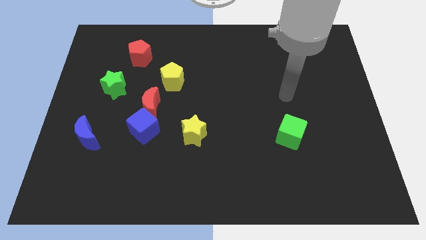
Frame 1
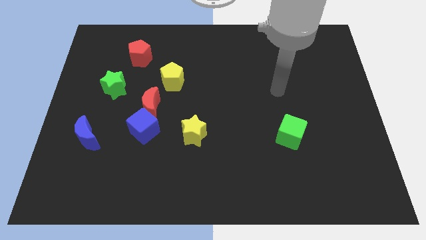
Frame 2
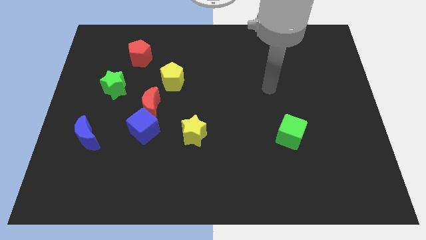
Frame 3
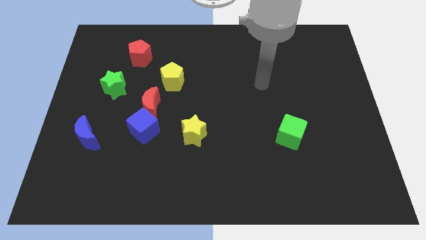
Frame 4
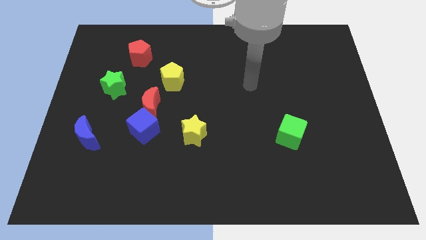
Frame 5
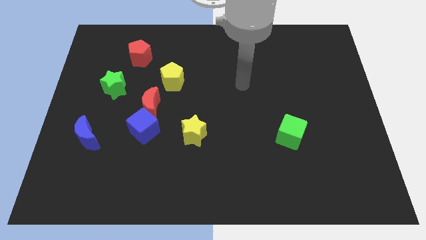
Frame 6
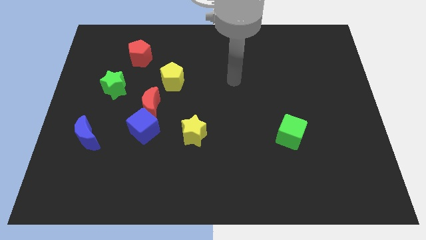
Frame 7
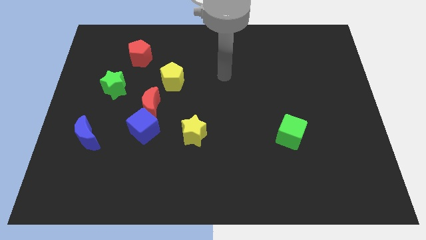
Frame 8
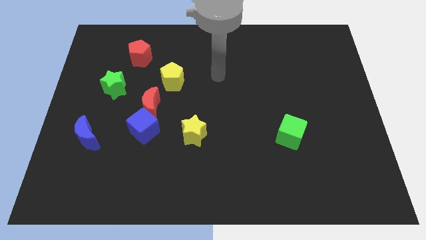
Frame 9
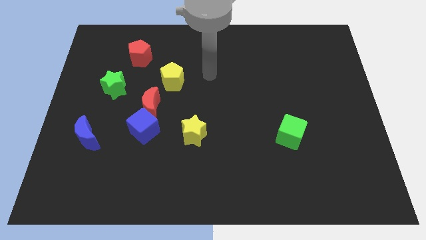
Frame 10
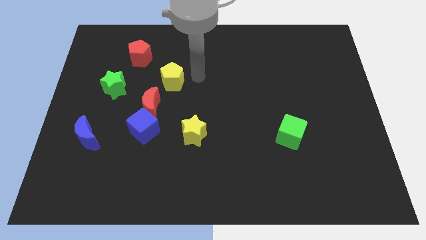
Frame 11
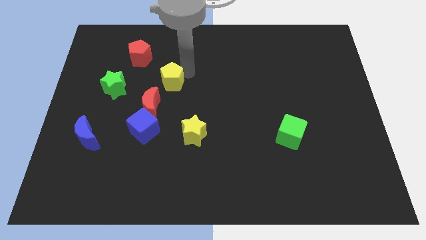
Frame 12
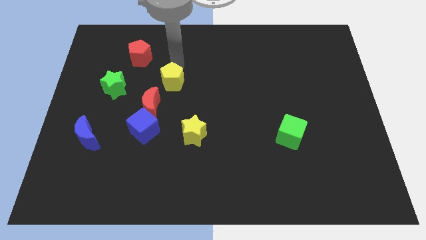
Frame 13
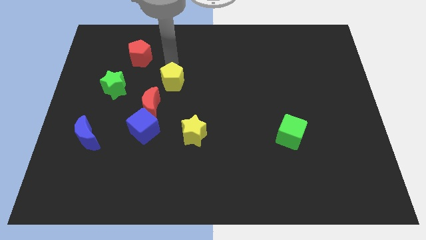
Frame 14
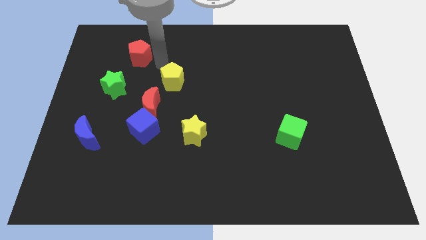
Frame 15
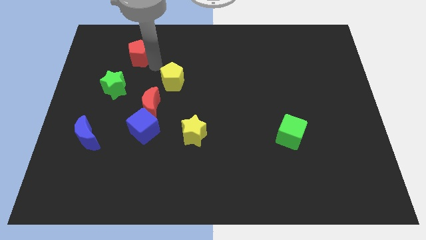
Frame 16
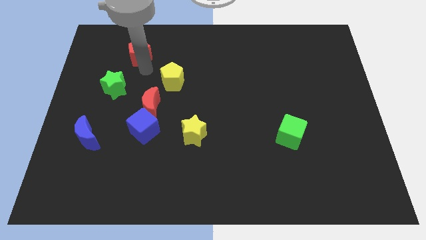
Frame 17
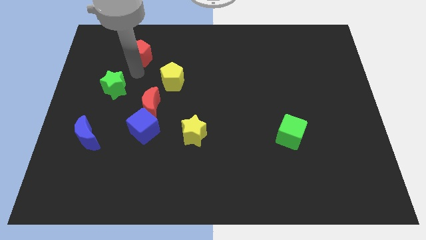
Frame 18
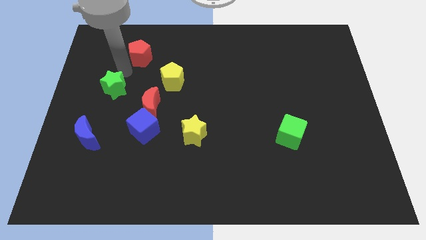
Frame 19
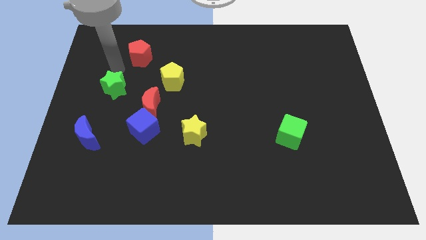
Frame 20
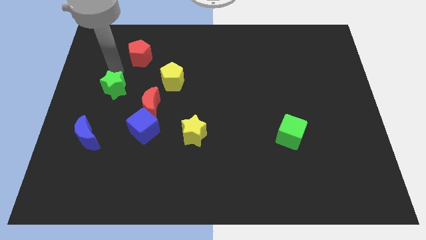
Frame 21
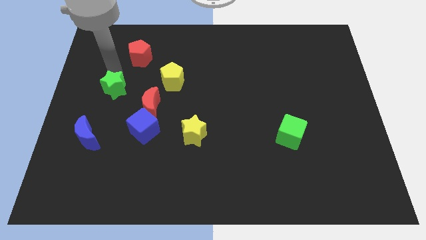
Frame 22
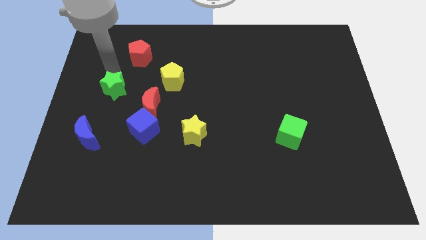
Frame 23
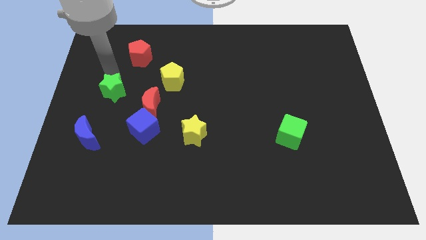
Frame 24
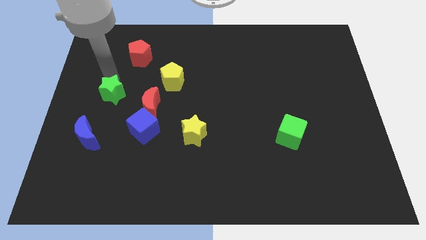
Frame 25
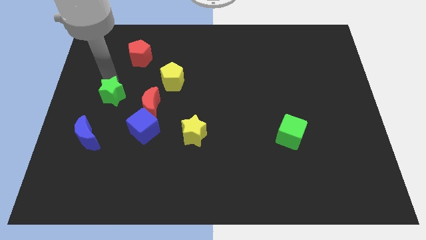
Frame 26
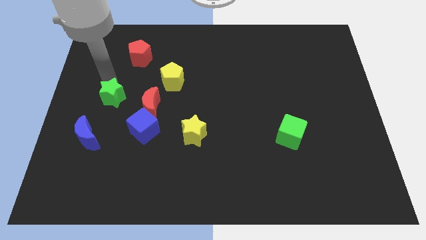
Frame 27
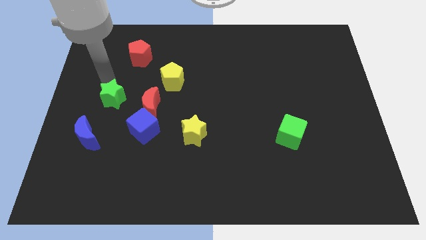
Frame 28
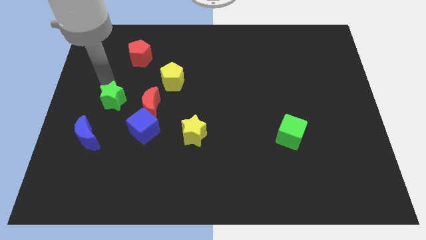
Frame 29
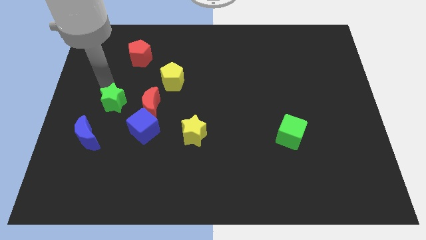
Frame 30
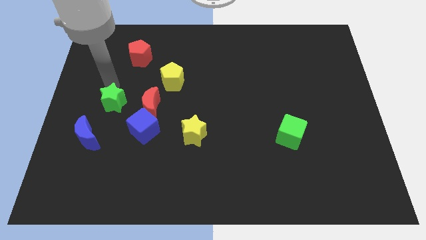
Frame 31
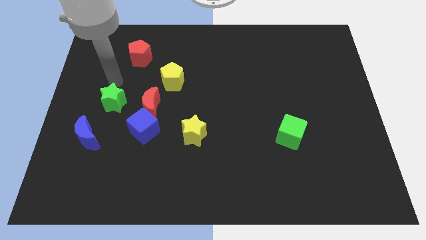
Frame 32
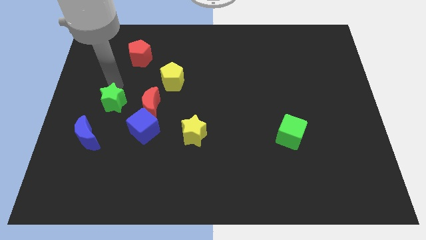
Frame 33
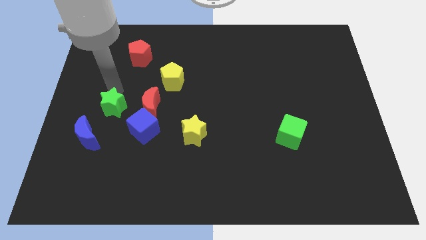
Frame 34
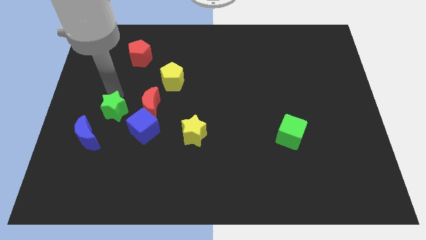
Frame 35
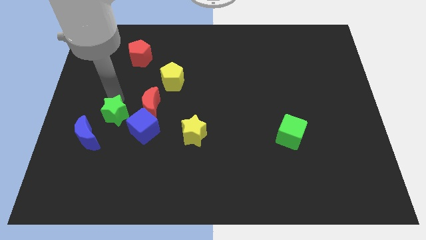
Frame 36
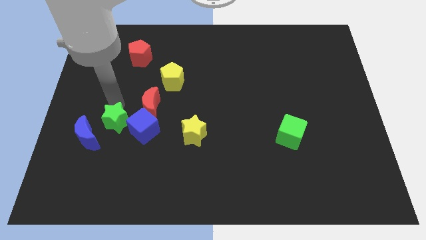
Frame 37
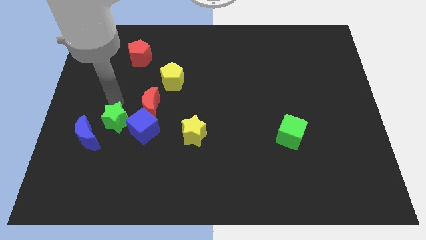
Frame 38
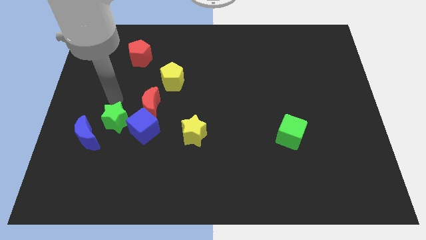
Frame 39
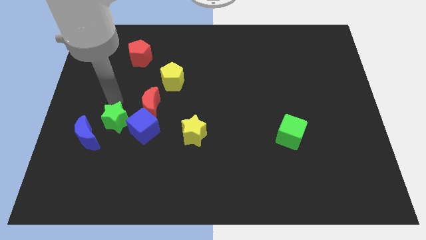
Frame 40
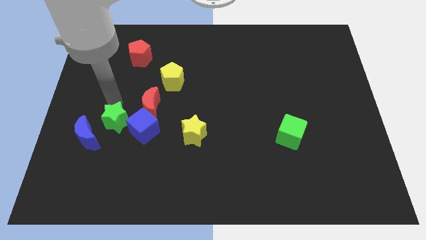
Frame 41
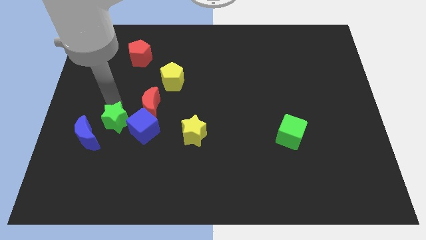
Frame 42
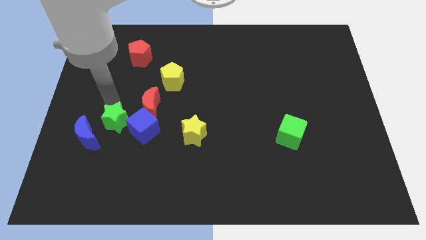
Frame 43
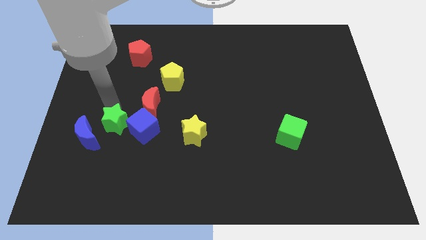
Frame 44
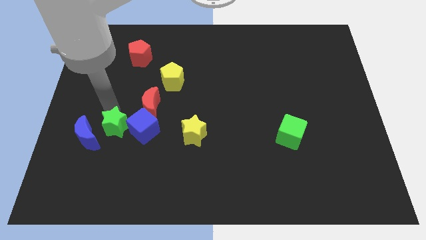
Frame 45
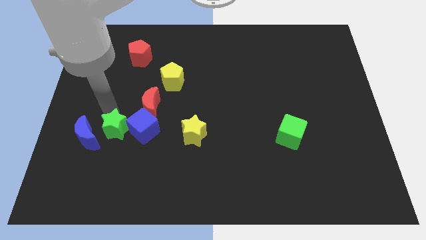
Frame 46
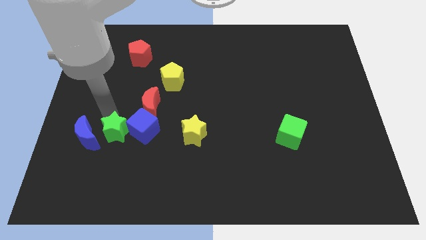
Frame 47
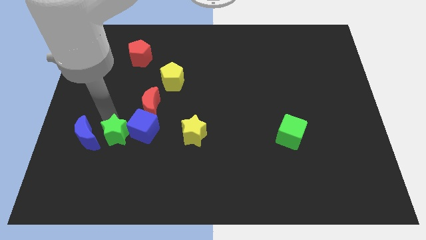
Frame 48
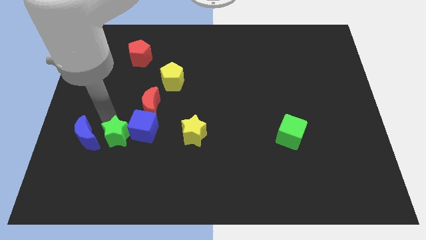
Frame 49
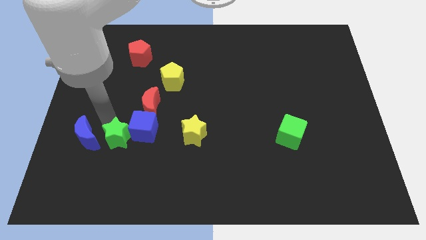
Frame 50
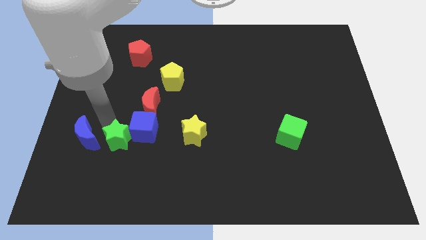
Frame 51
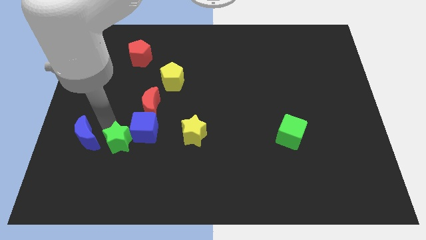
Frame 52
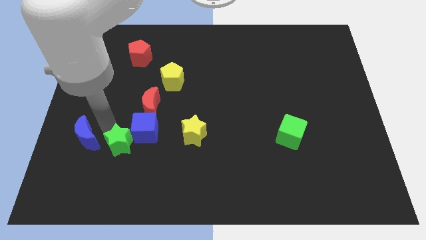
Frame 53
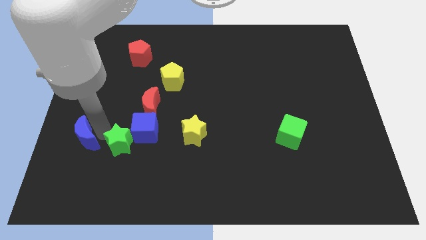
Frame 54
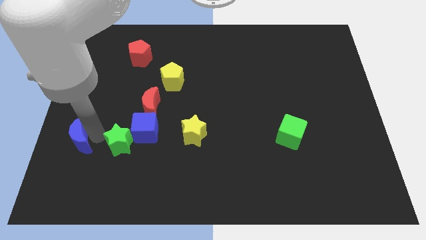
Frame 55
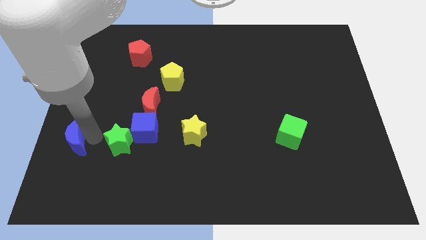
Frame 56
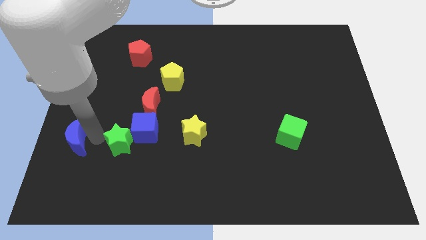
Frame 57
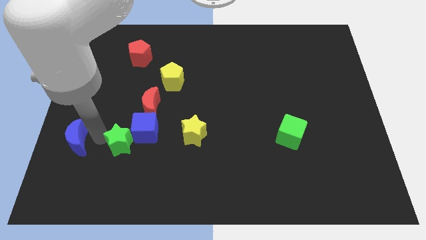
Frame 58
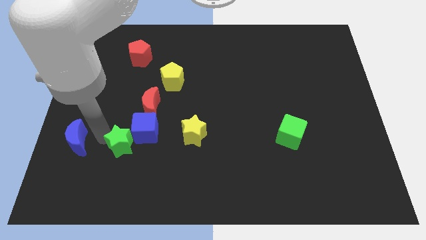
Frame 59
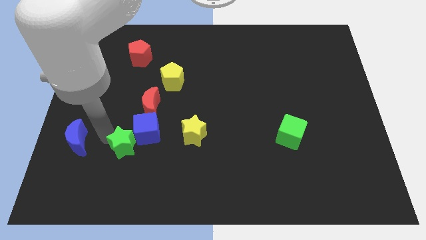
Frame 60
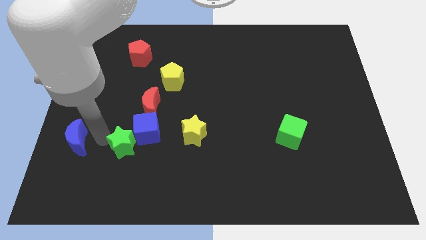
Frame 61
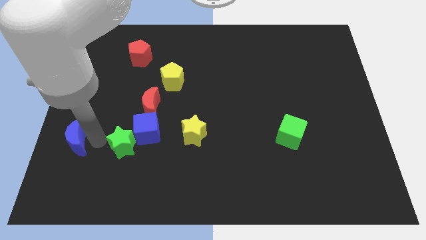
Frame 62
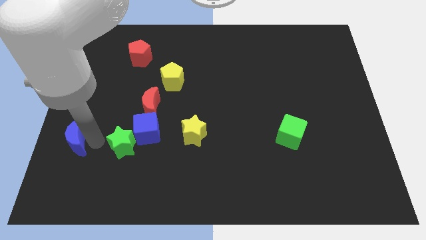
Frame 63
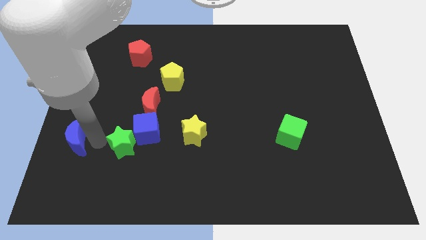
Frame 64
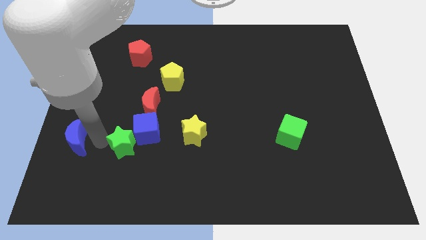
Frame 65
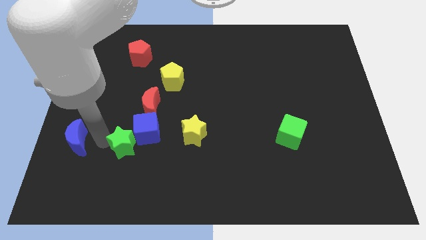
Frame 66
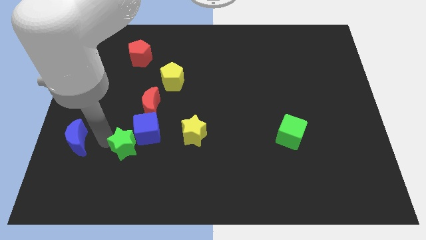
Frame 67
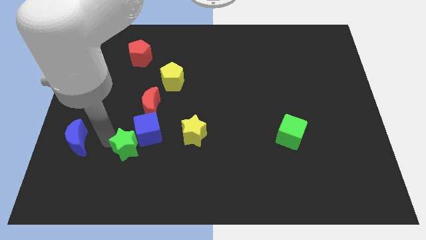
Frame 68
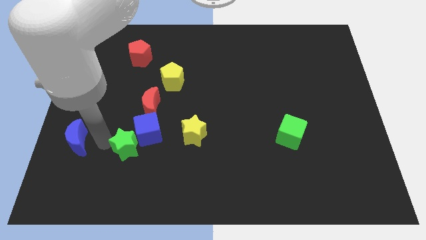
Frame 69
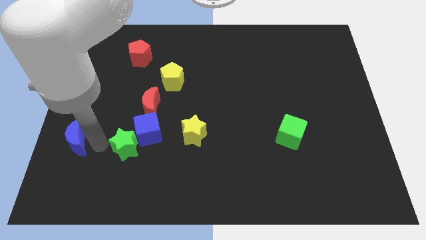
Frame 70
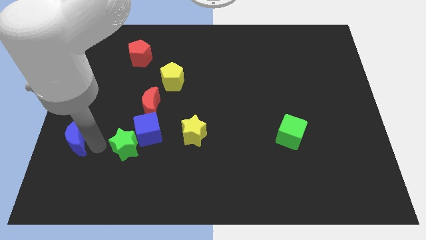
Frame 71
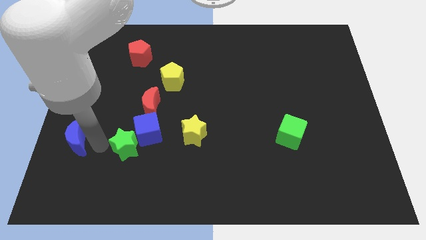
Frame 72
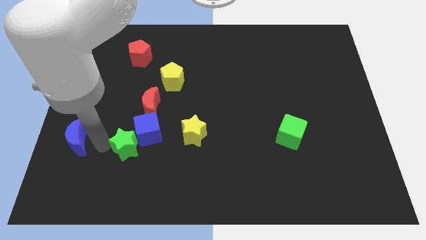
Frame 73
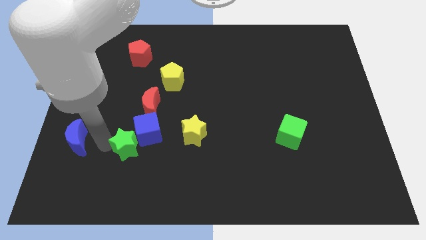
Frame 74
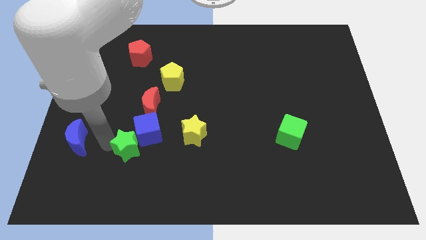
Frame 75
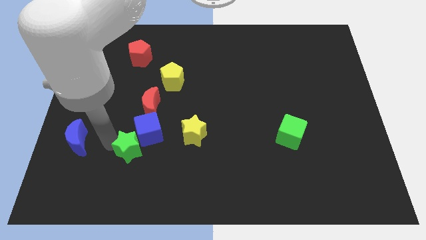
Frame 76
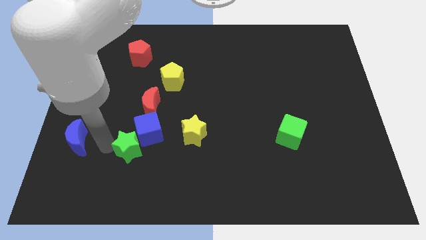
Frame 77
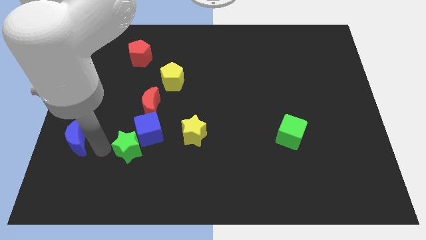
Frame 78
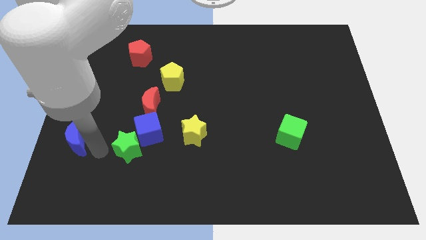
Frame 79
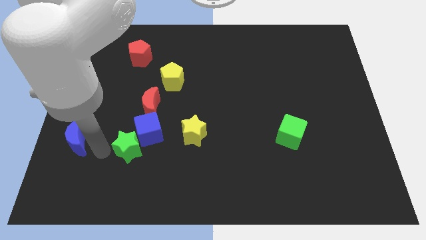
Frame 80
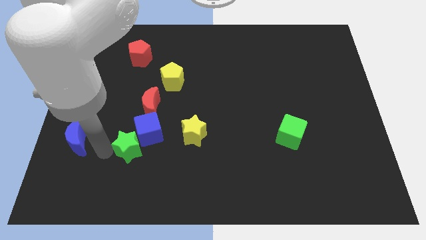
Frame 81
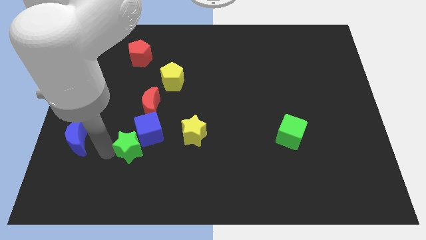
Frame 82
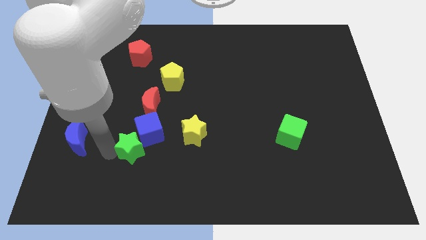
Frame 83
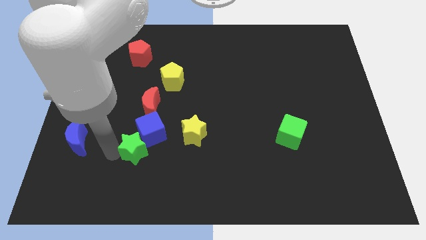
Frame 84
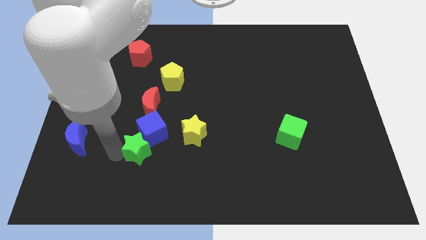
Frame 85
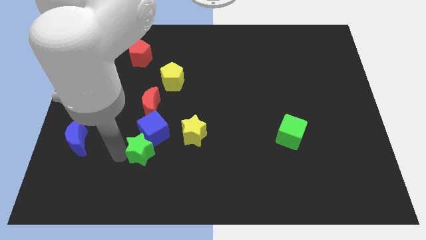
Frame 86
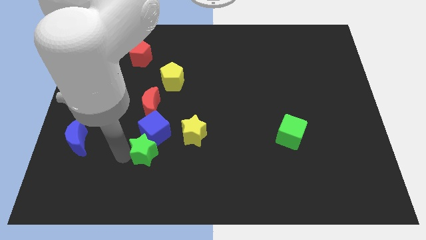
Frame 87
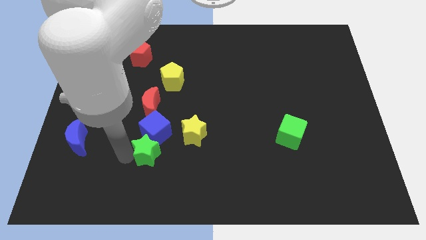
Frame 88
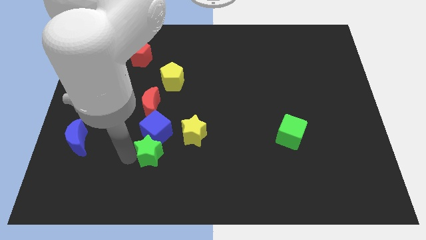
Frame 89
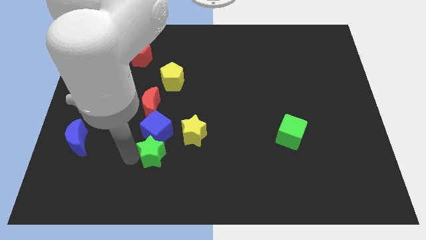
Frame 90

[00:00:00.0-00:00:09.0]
slide the green star downwards and to the right
